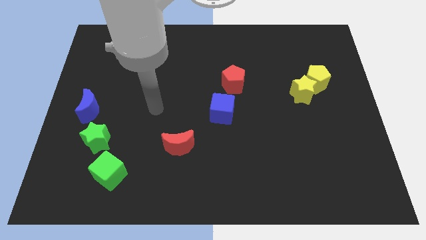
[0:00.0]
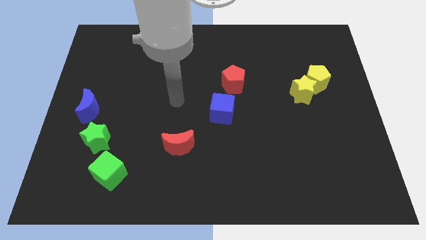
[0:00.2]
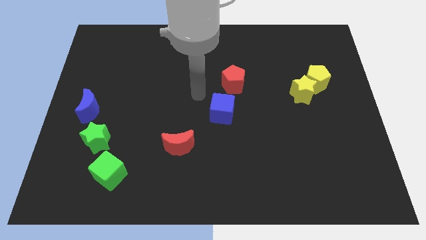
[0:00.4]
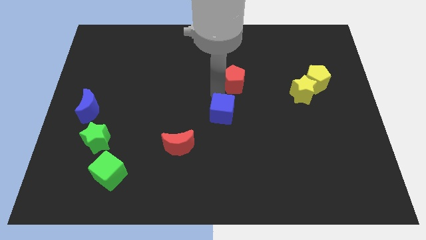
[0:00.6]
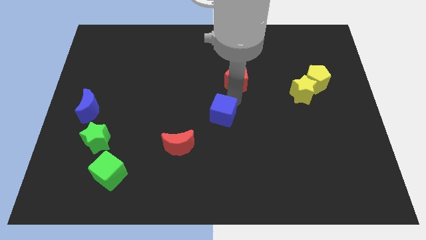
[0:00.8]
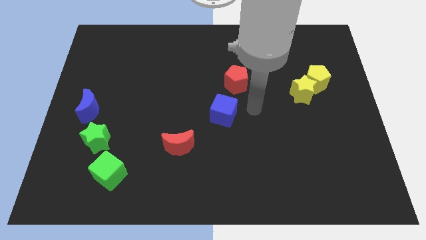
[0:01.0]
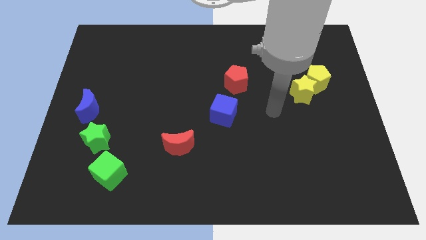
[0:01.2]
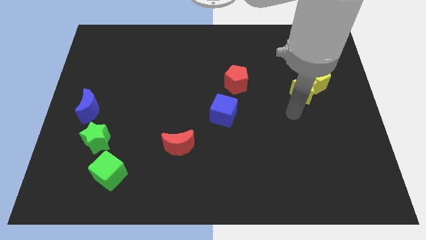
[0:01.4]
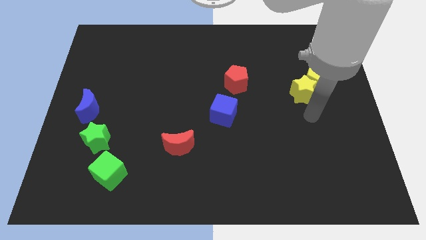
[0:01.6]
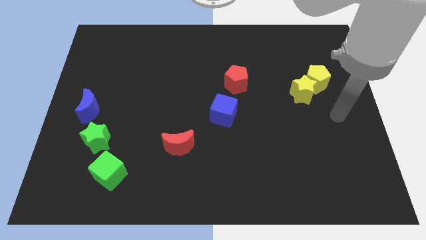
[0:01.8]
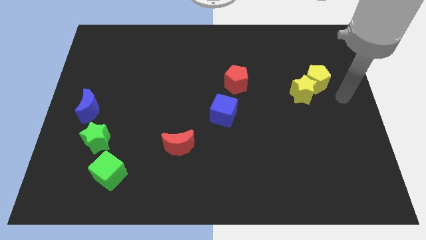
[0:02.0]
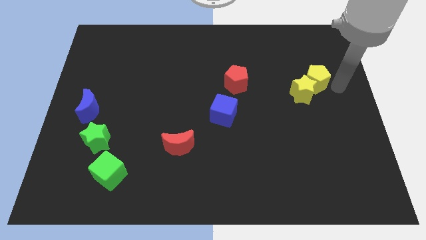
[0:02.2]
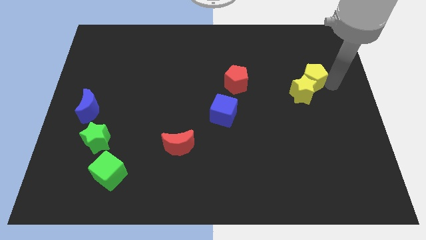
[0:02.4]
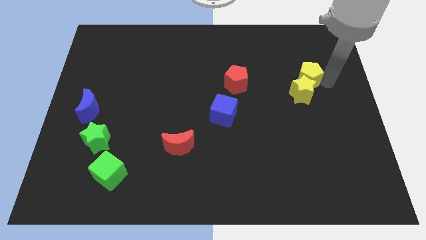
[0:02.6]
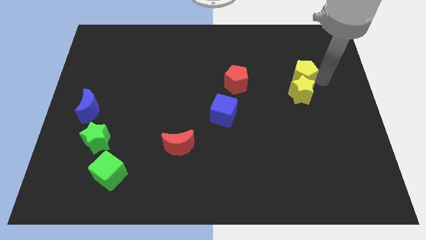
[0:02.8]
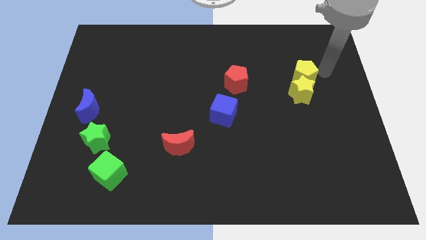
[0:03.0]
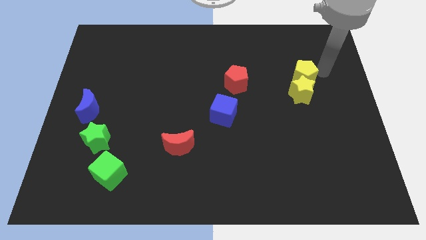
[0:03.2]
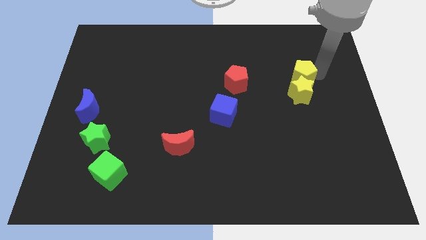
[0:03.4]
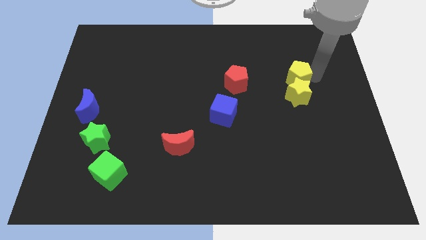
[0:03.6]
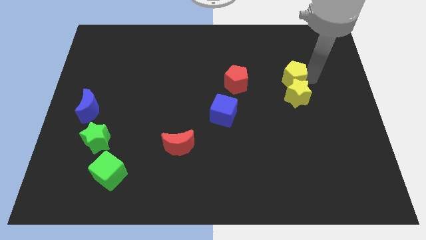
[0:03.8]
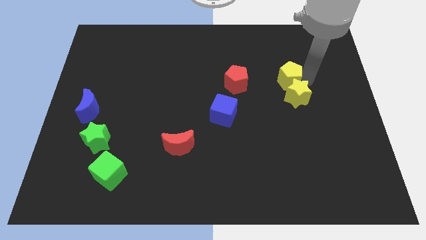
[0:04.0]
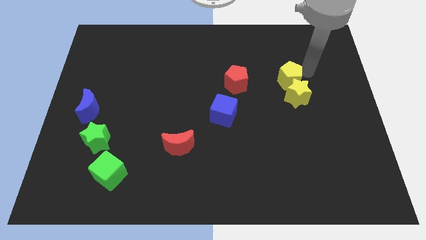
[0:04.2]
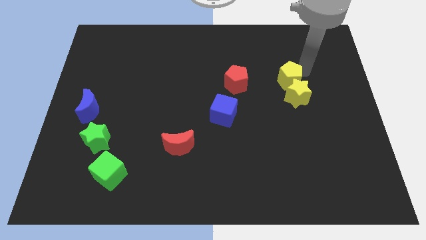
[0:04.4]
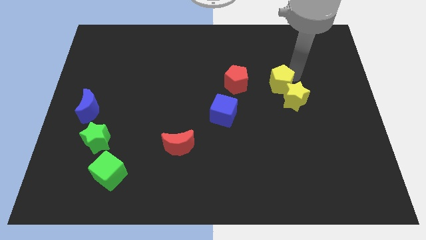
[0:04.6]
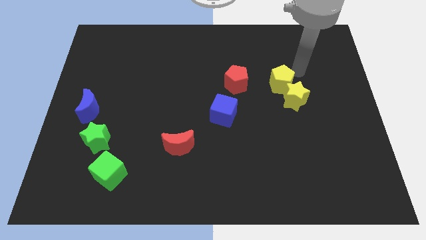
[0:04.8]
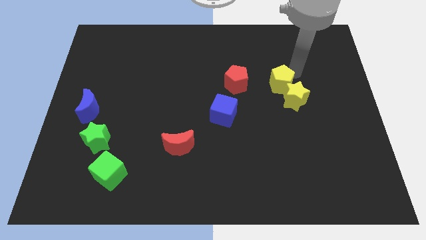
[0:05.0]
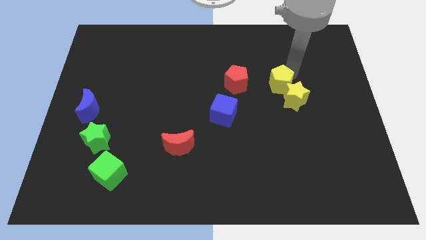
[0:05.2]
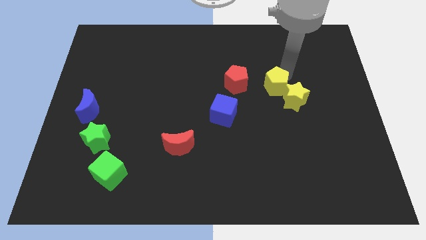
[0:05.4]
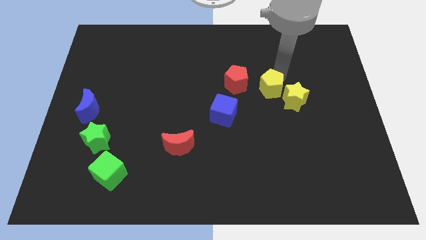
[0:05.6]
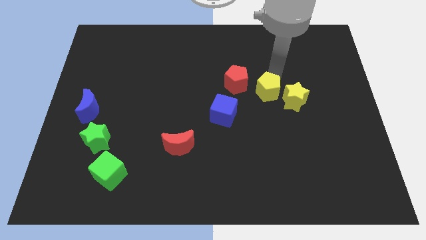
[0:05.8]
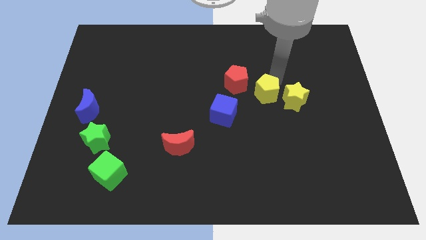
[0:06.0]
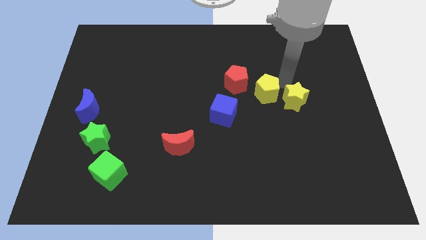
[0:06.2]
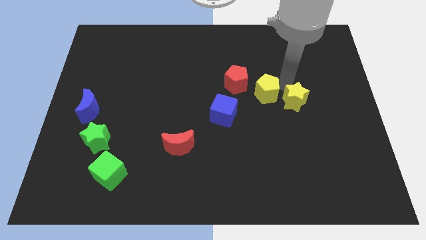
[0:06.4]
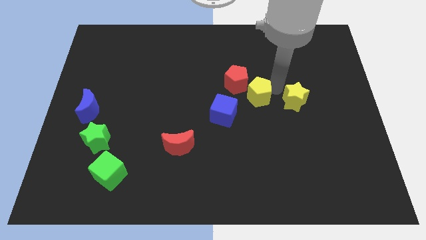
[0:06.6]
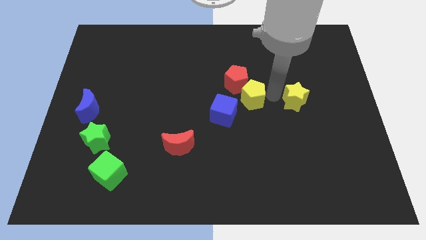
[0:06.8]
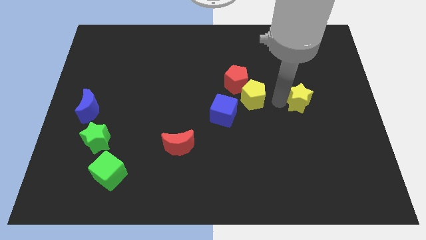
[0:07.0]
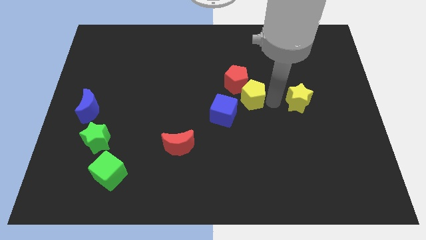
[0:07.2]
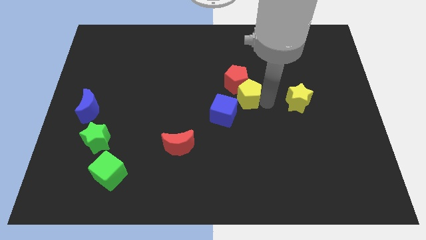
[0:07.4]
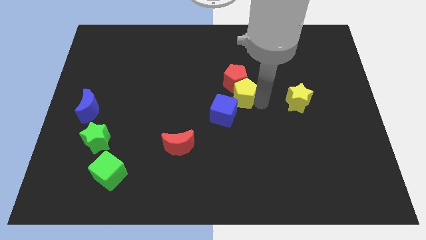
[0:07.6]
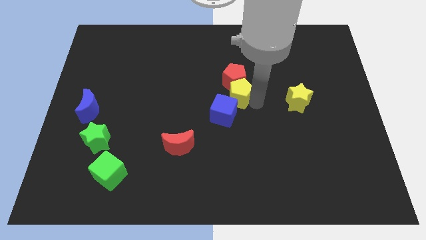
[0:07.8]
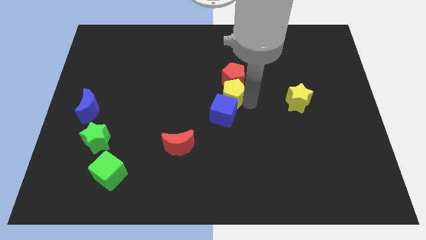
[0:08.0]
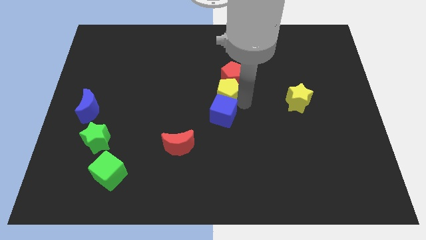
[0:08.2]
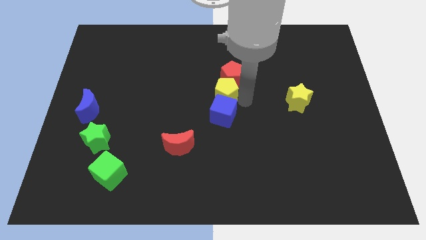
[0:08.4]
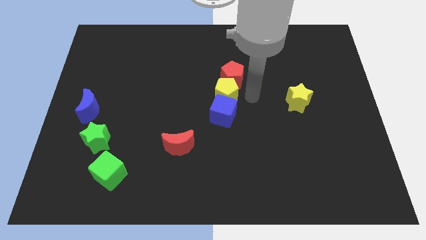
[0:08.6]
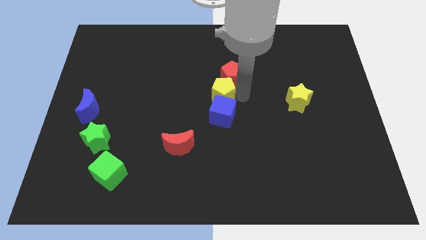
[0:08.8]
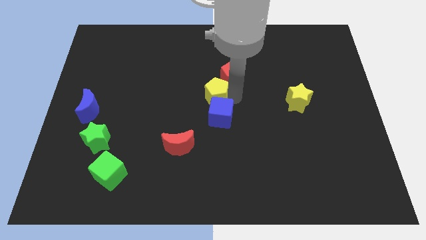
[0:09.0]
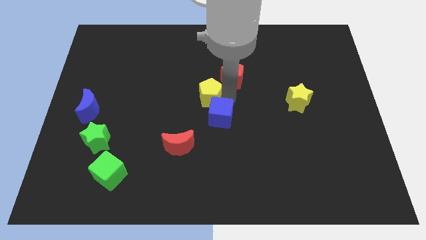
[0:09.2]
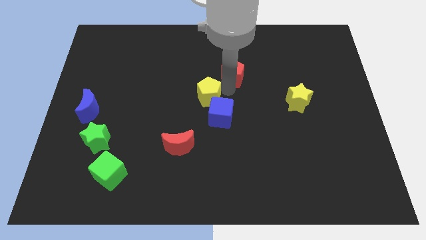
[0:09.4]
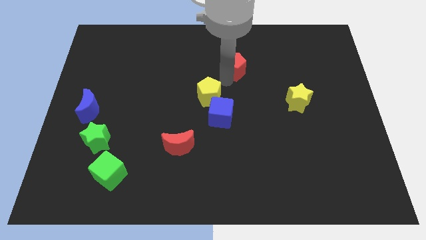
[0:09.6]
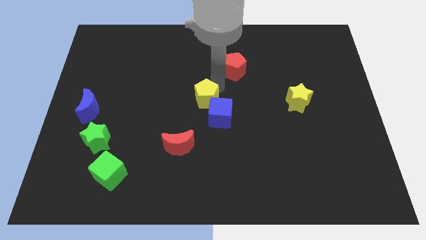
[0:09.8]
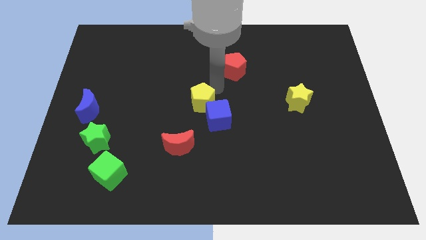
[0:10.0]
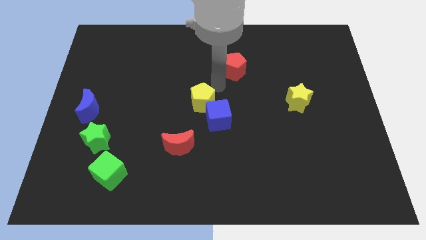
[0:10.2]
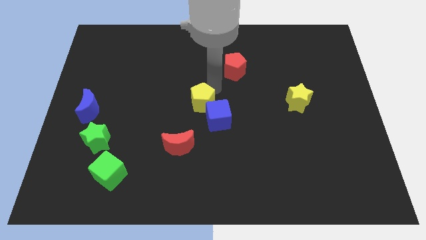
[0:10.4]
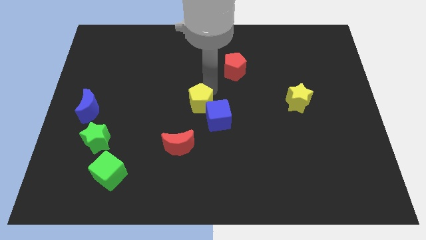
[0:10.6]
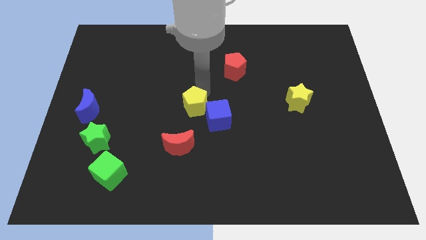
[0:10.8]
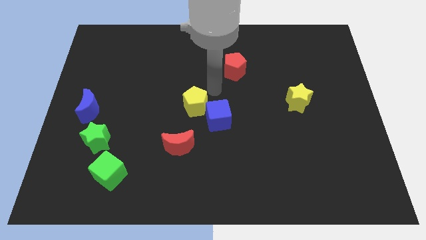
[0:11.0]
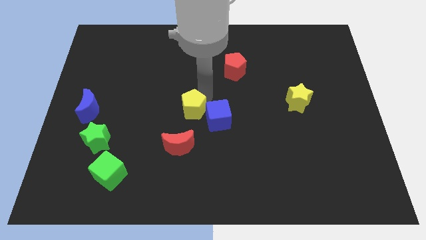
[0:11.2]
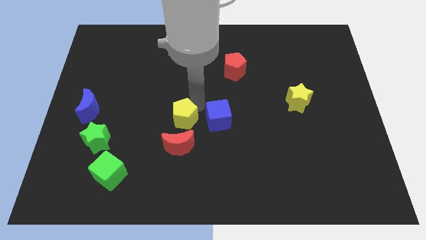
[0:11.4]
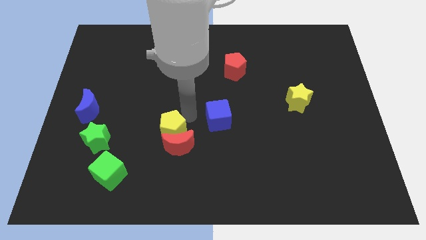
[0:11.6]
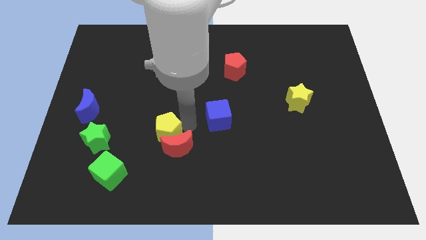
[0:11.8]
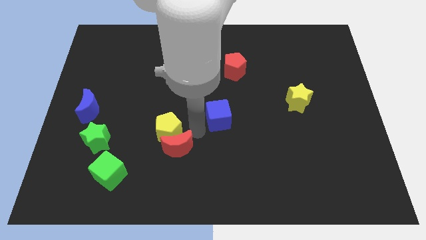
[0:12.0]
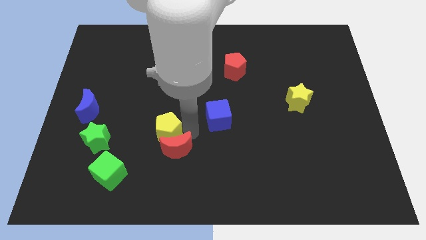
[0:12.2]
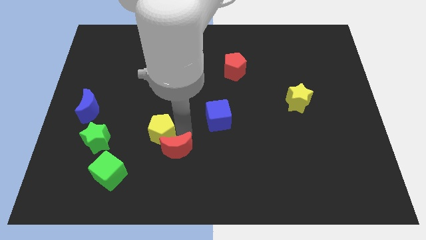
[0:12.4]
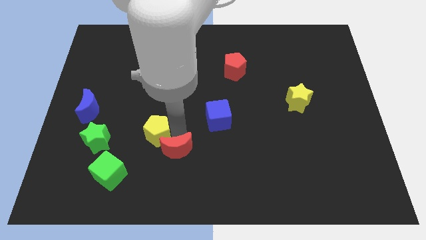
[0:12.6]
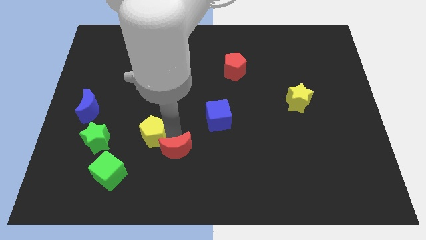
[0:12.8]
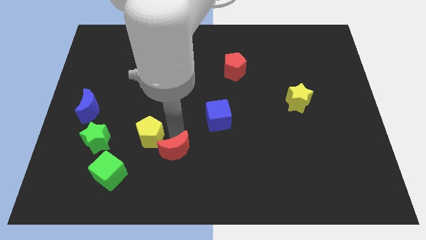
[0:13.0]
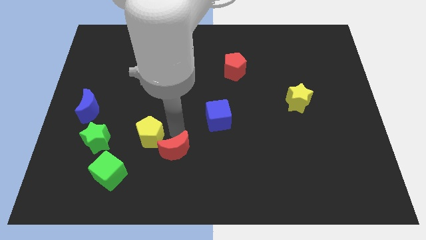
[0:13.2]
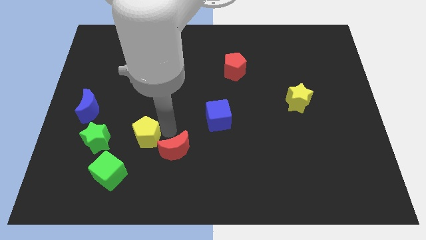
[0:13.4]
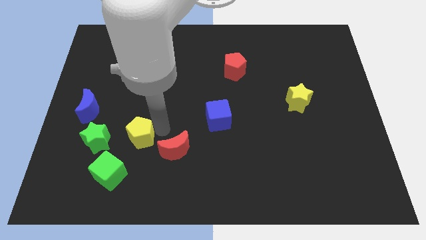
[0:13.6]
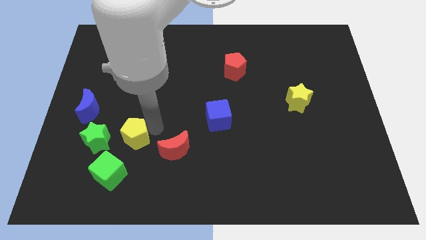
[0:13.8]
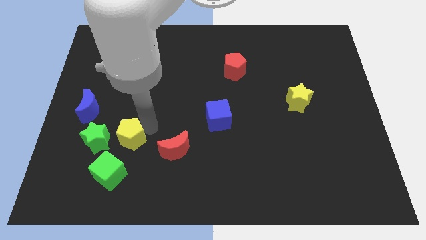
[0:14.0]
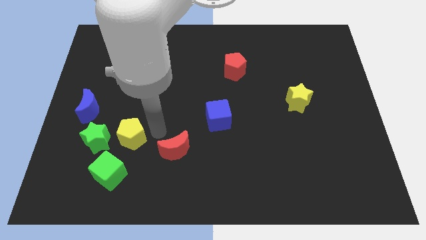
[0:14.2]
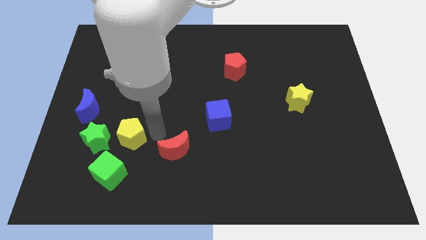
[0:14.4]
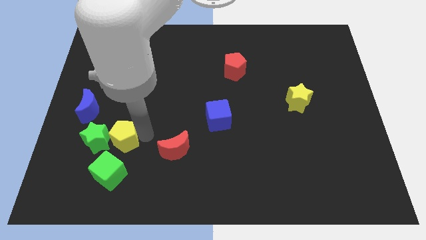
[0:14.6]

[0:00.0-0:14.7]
slide the yellow pentagon close to the green star
